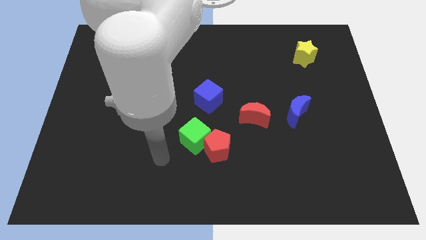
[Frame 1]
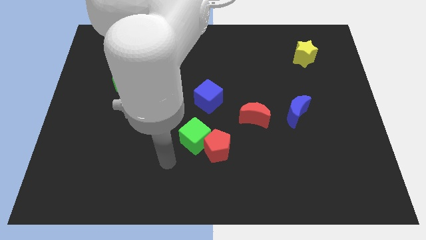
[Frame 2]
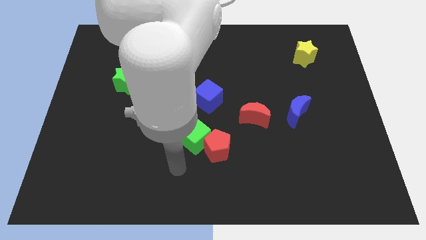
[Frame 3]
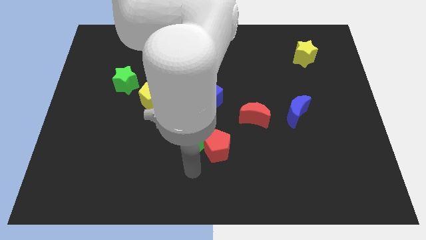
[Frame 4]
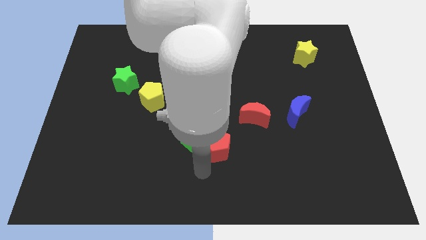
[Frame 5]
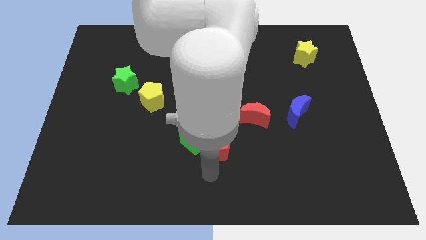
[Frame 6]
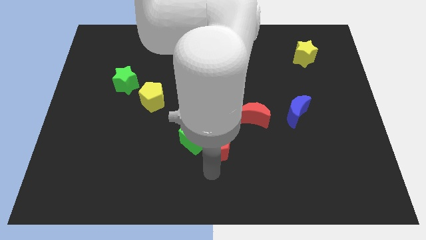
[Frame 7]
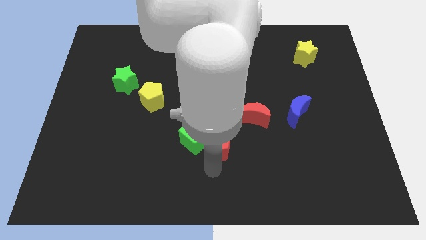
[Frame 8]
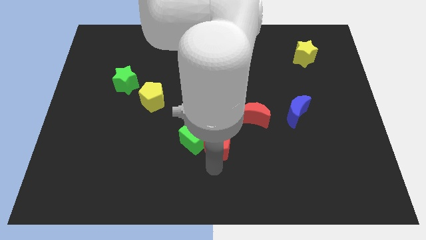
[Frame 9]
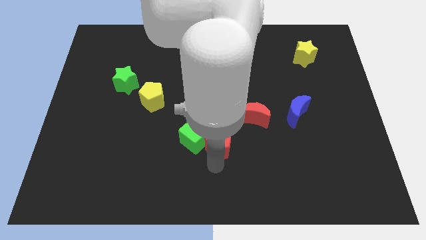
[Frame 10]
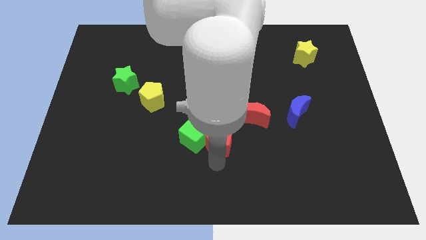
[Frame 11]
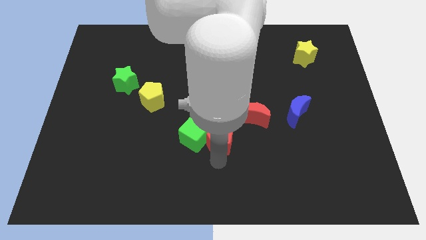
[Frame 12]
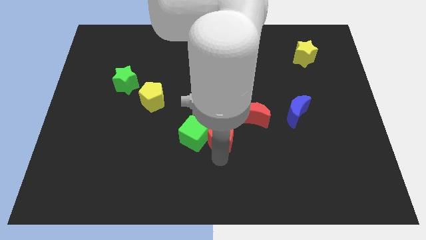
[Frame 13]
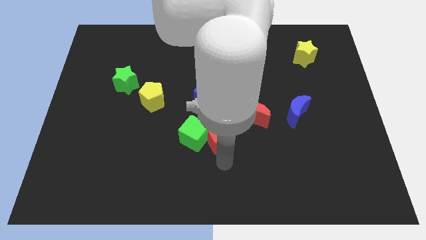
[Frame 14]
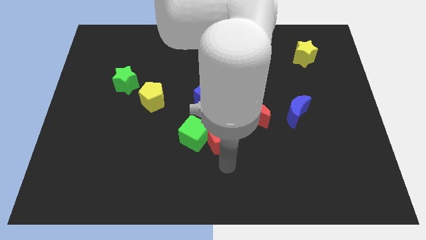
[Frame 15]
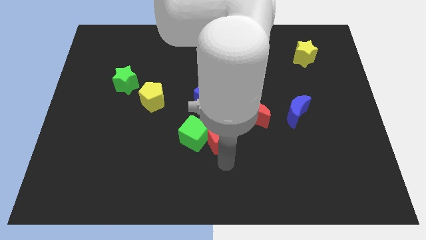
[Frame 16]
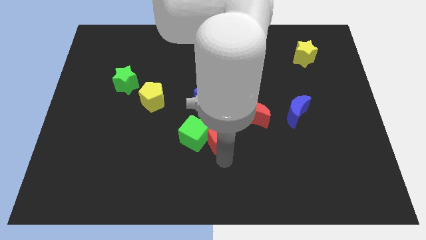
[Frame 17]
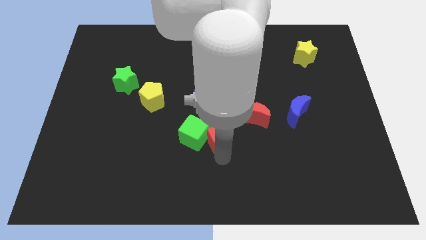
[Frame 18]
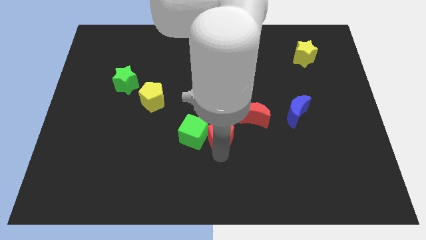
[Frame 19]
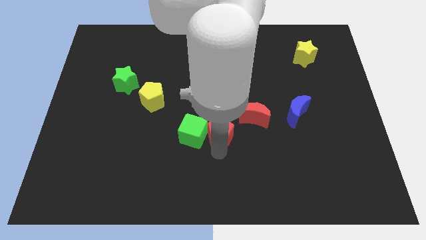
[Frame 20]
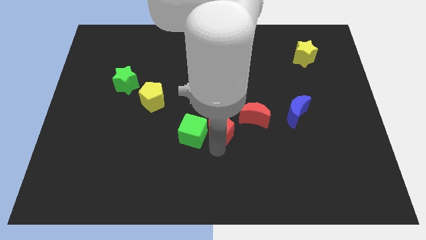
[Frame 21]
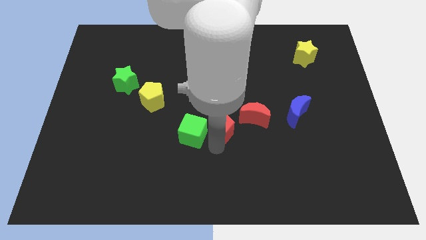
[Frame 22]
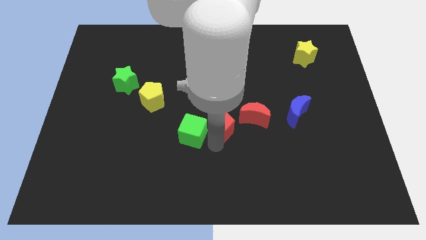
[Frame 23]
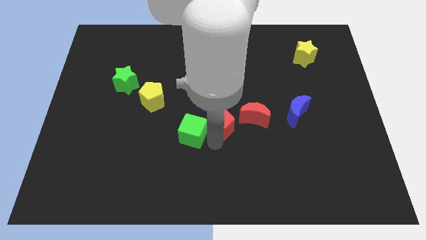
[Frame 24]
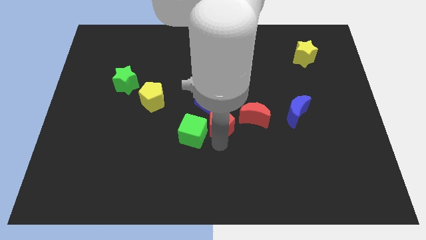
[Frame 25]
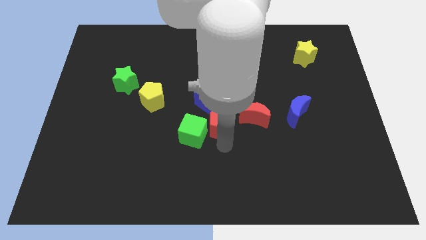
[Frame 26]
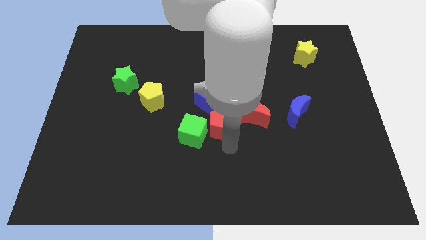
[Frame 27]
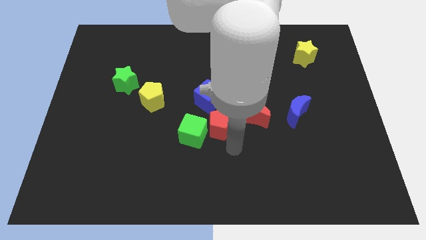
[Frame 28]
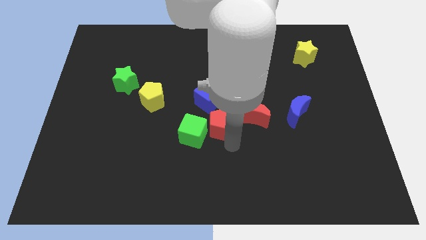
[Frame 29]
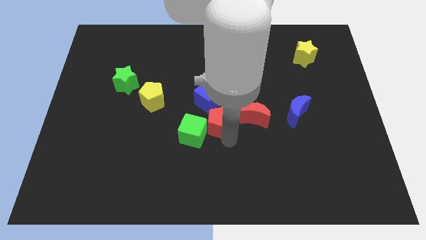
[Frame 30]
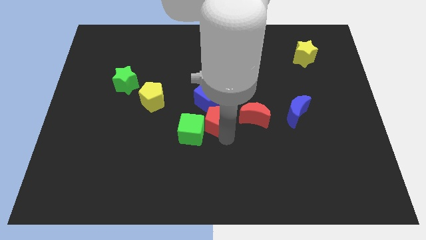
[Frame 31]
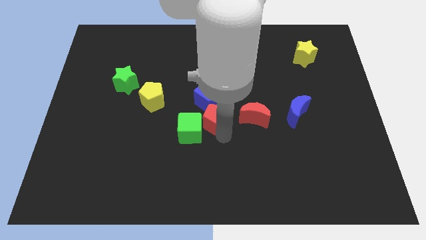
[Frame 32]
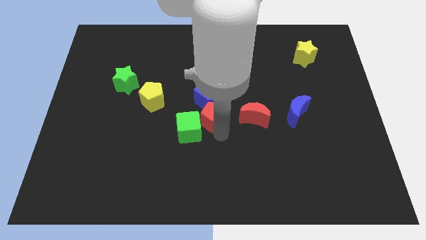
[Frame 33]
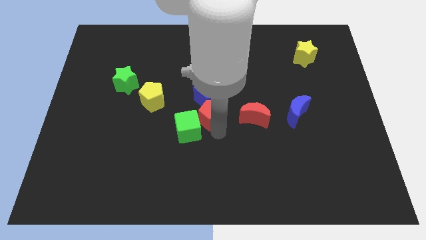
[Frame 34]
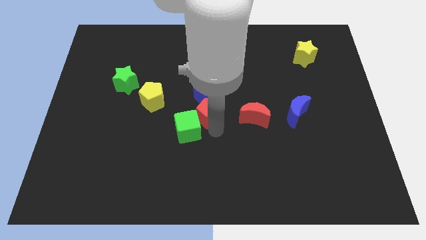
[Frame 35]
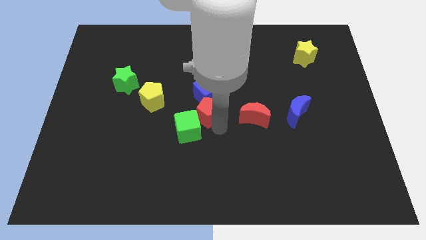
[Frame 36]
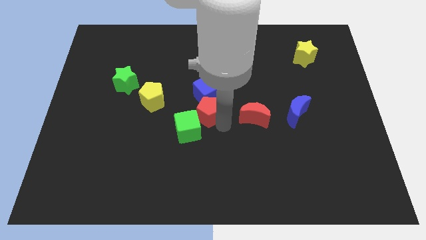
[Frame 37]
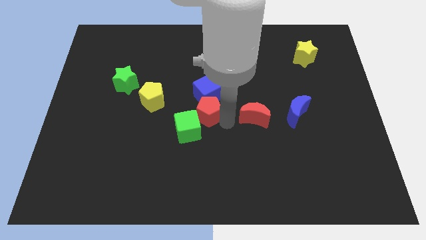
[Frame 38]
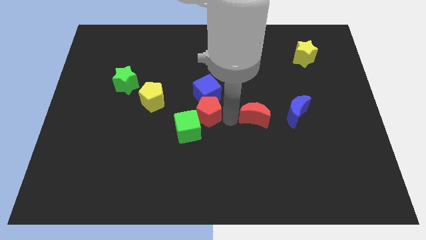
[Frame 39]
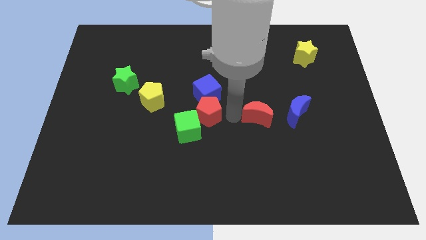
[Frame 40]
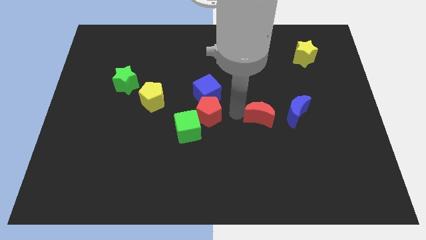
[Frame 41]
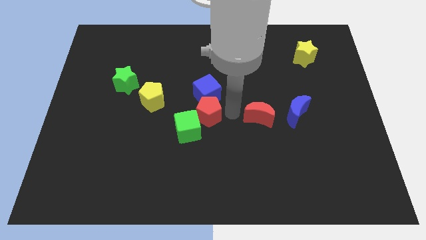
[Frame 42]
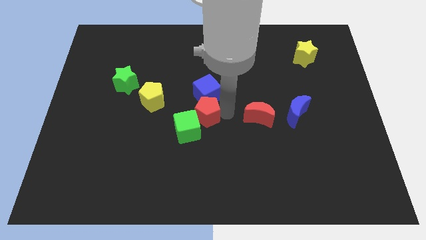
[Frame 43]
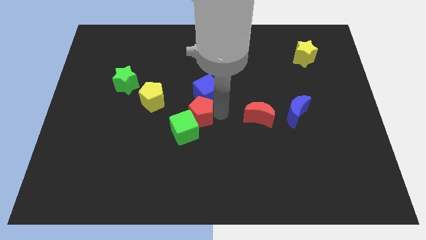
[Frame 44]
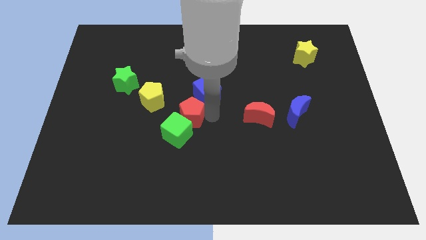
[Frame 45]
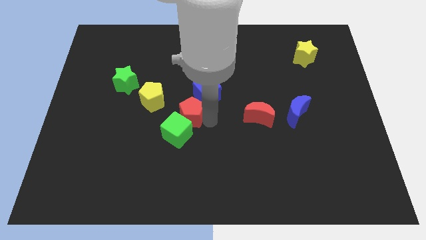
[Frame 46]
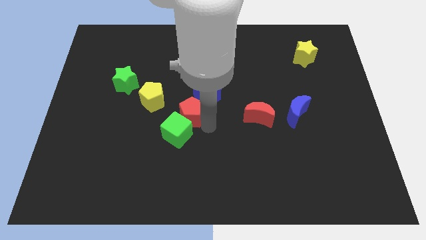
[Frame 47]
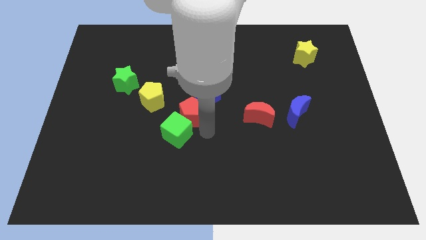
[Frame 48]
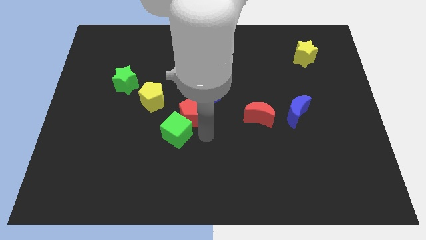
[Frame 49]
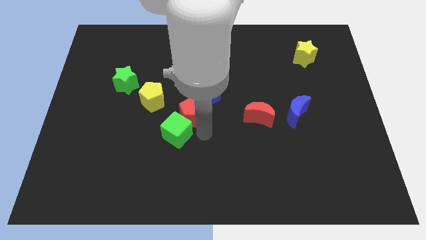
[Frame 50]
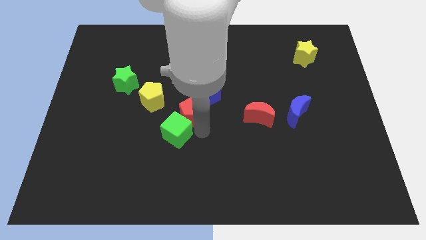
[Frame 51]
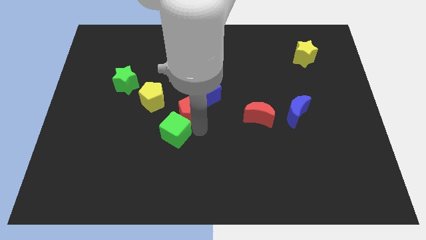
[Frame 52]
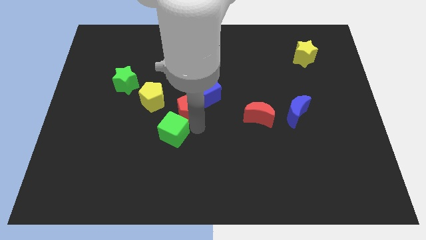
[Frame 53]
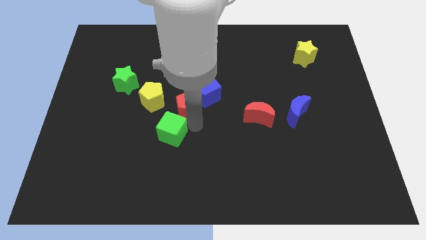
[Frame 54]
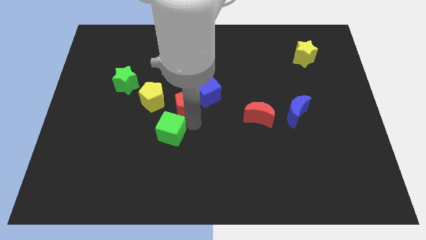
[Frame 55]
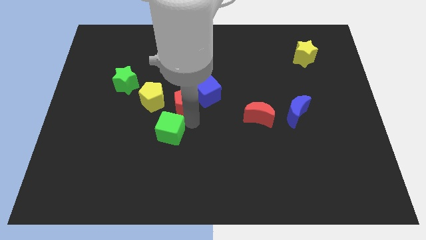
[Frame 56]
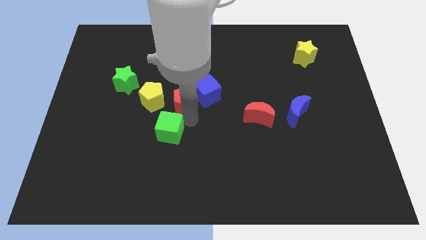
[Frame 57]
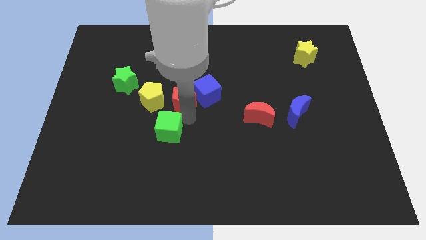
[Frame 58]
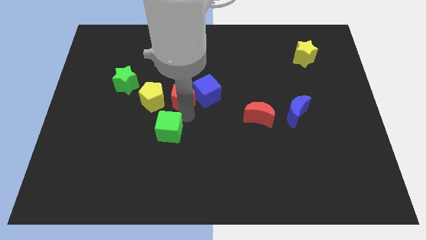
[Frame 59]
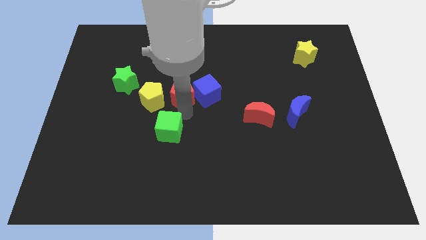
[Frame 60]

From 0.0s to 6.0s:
put the red pentagon to the top right of the yellow pentagon

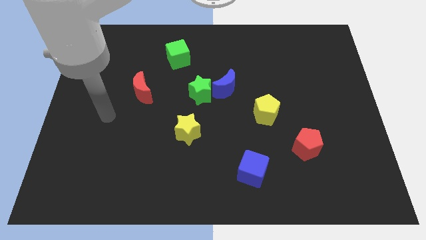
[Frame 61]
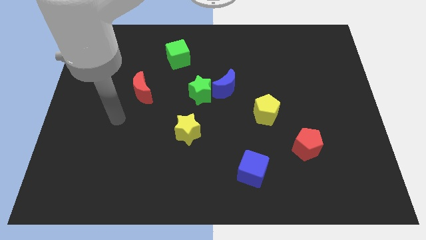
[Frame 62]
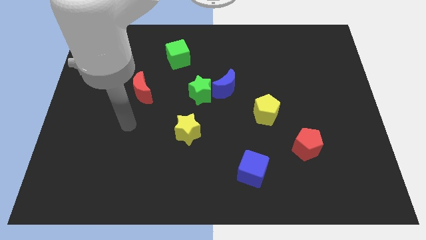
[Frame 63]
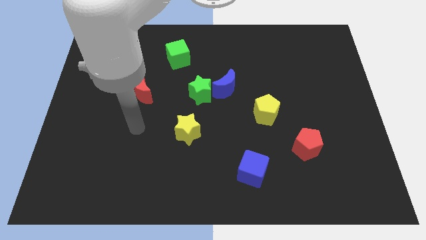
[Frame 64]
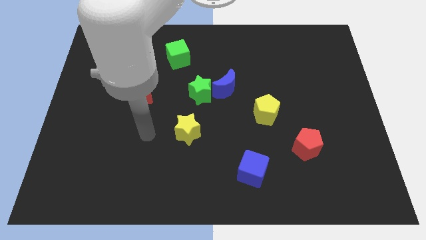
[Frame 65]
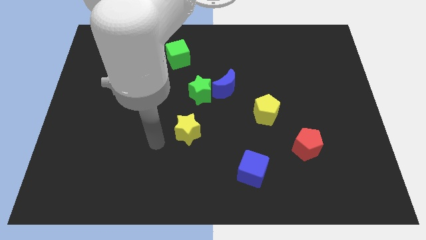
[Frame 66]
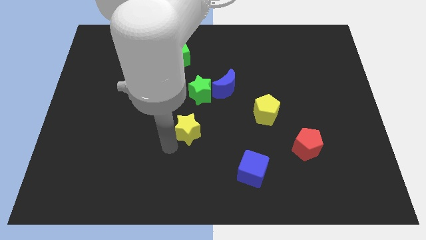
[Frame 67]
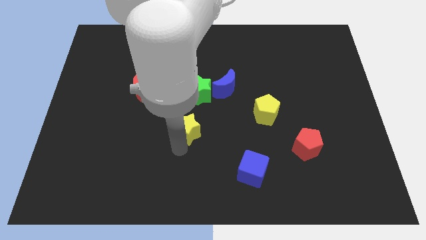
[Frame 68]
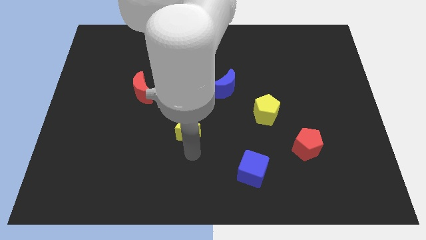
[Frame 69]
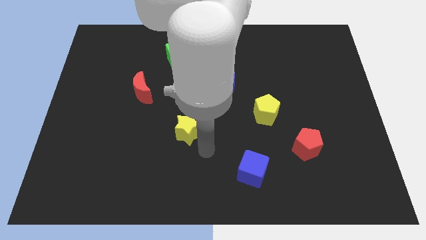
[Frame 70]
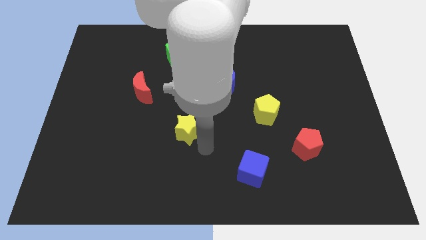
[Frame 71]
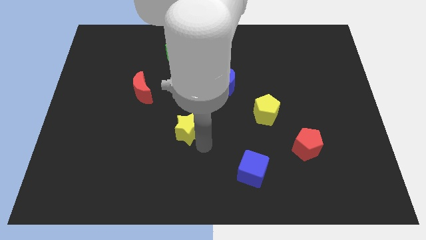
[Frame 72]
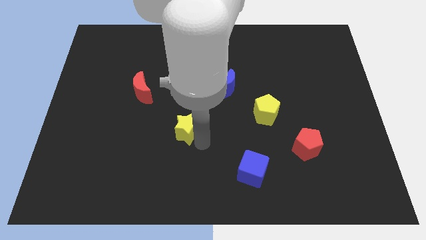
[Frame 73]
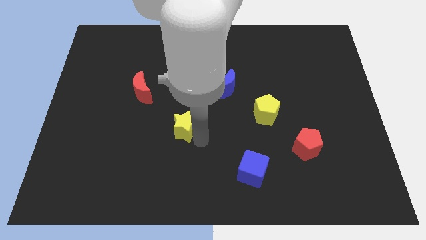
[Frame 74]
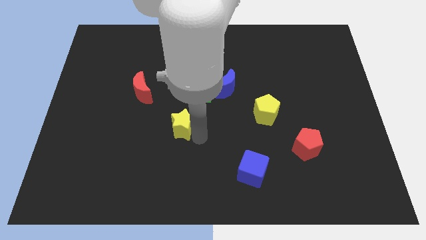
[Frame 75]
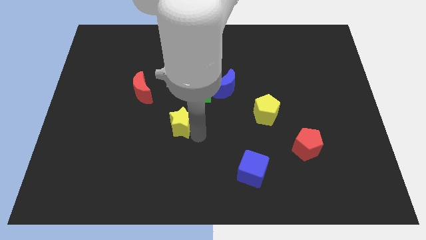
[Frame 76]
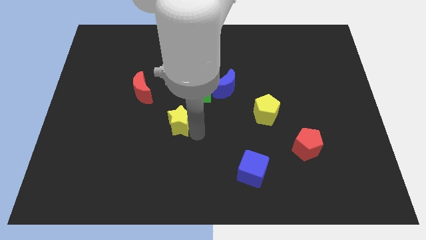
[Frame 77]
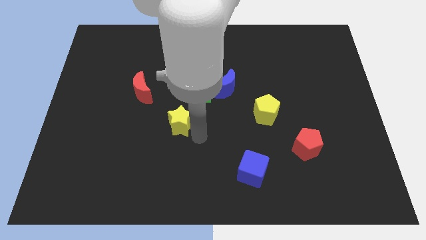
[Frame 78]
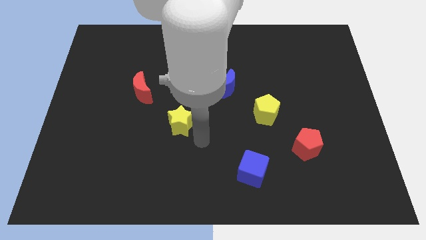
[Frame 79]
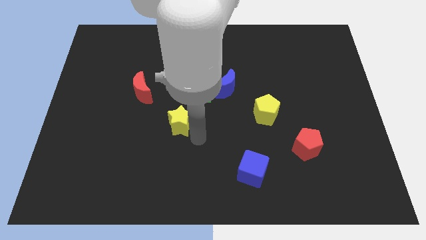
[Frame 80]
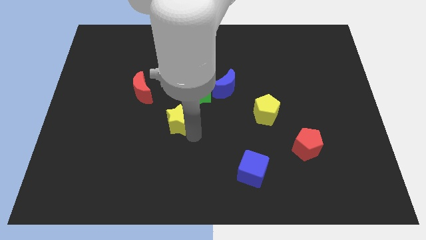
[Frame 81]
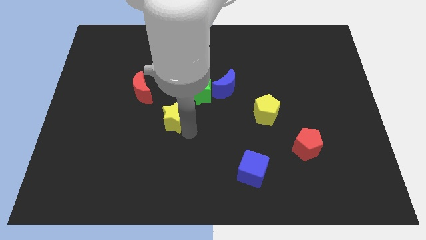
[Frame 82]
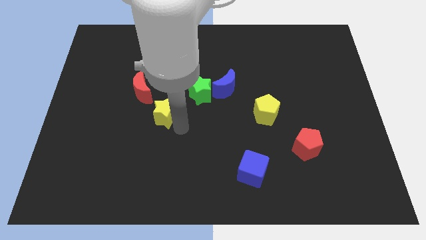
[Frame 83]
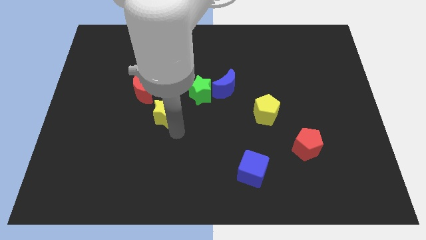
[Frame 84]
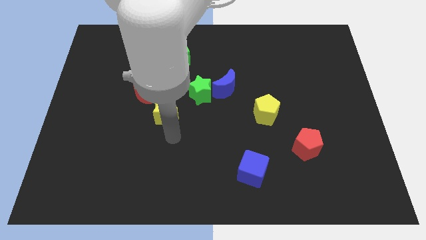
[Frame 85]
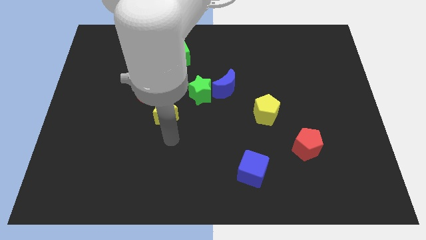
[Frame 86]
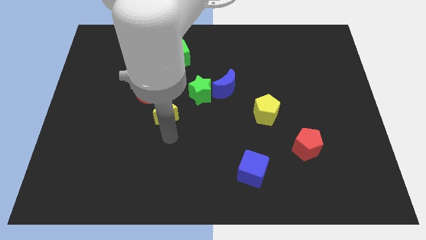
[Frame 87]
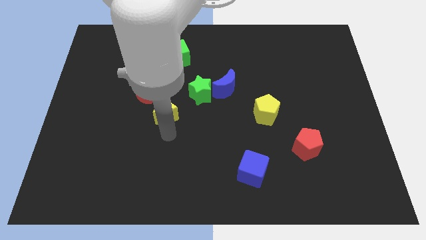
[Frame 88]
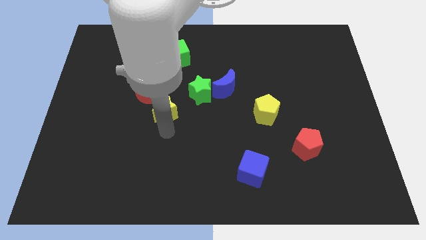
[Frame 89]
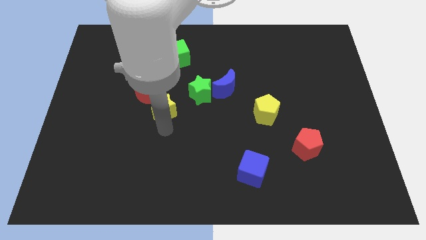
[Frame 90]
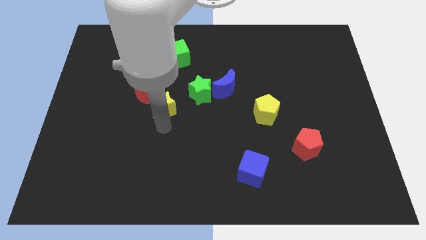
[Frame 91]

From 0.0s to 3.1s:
move the yellow star left of the green star
